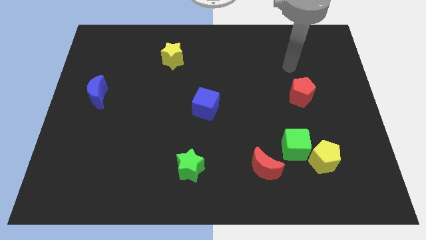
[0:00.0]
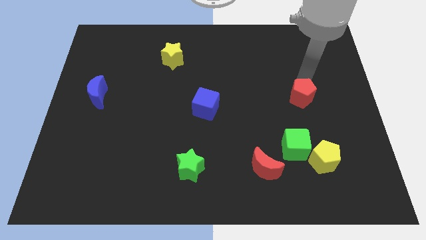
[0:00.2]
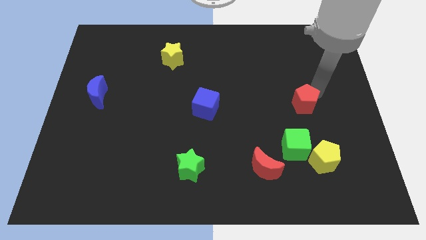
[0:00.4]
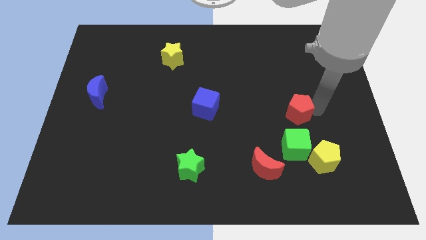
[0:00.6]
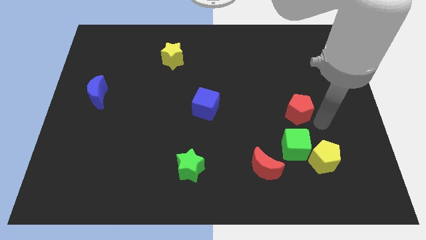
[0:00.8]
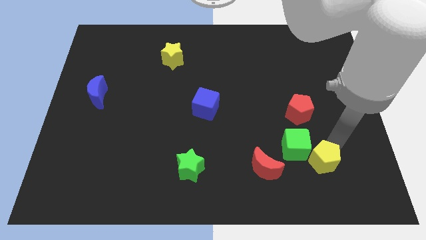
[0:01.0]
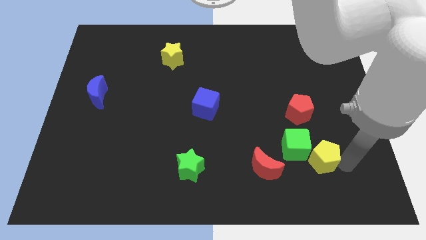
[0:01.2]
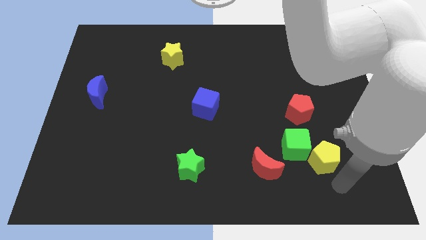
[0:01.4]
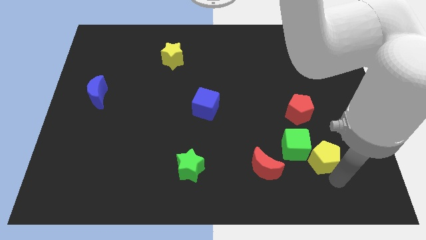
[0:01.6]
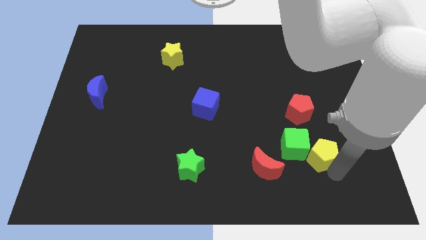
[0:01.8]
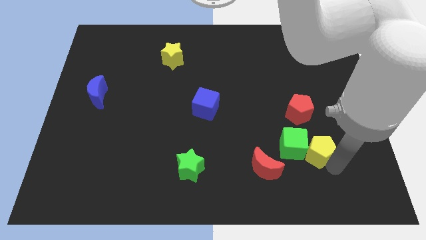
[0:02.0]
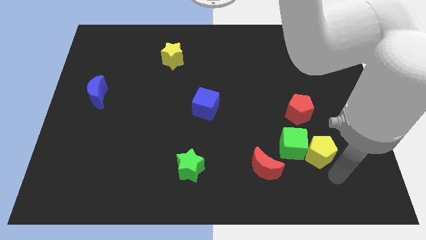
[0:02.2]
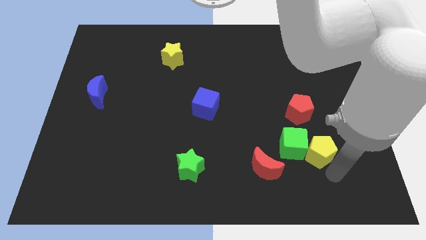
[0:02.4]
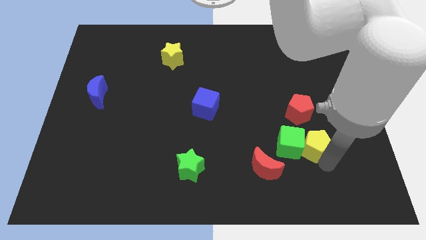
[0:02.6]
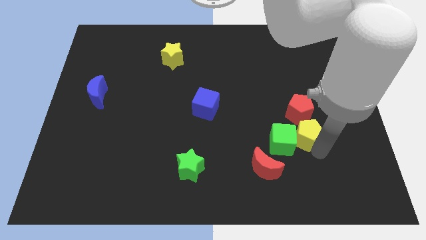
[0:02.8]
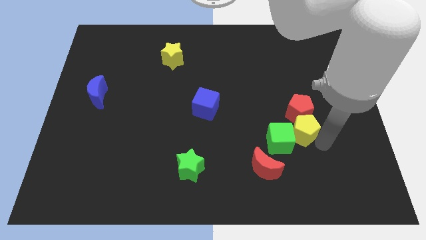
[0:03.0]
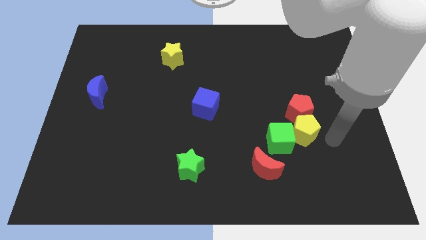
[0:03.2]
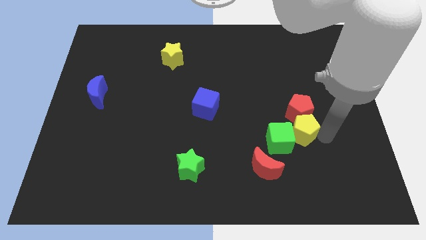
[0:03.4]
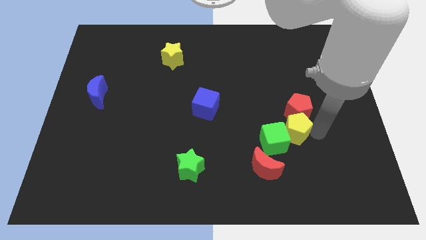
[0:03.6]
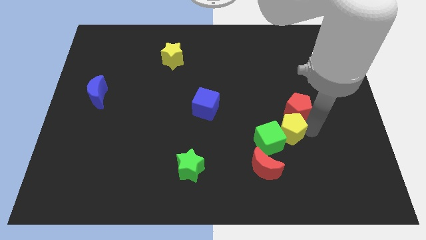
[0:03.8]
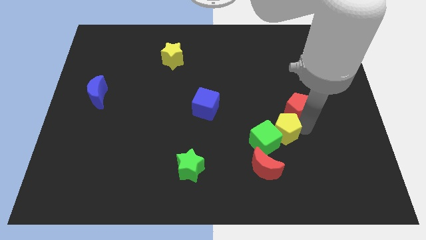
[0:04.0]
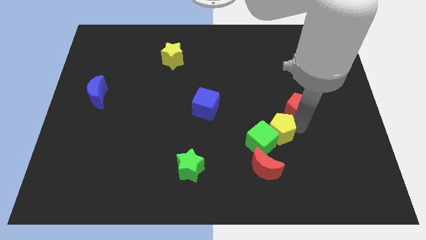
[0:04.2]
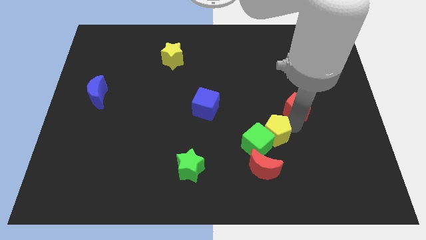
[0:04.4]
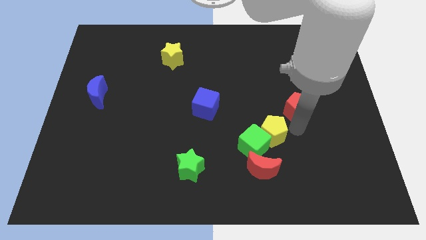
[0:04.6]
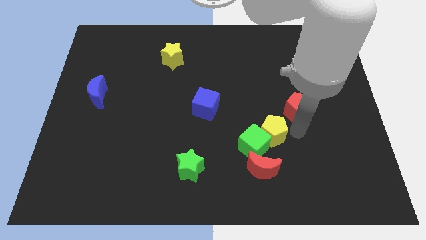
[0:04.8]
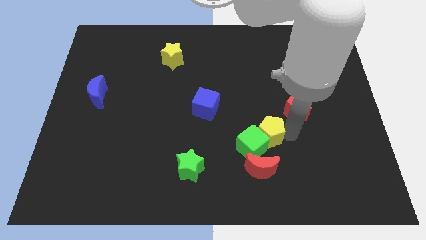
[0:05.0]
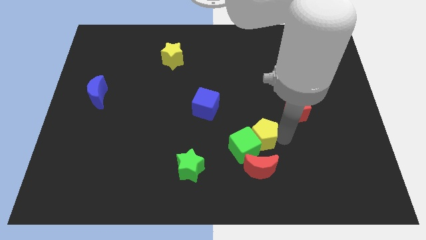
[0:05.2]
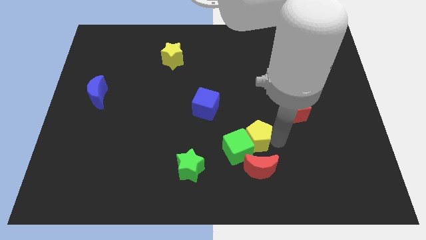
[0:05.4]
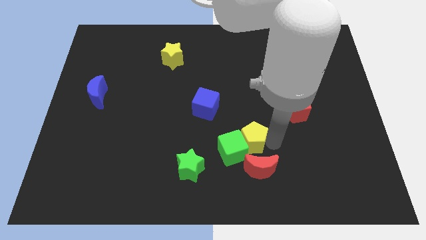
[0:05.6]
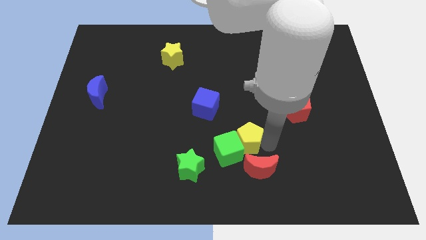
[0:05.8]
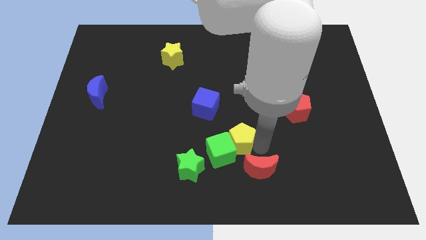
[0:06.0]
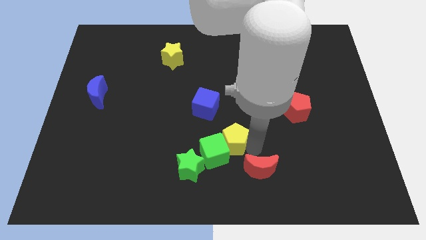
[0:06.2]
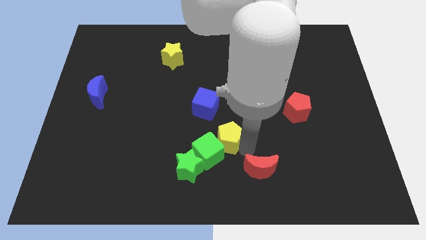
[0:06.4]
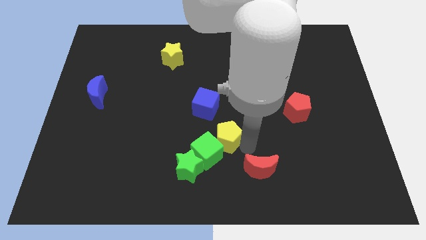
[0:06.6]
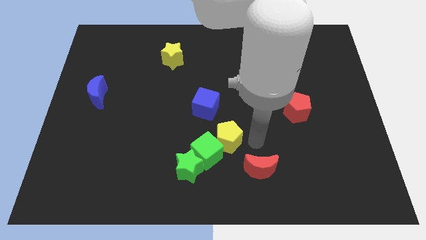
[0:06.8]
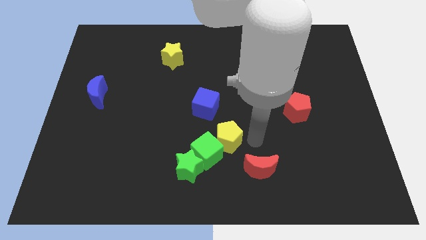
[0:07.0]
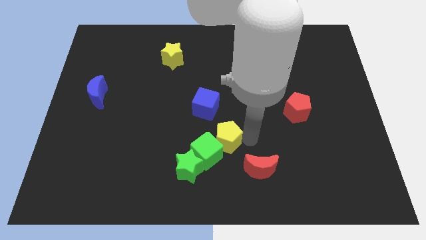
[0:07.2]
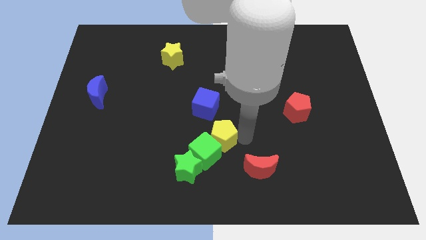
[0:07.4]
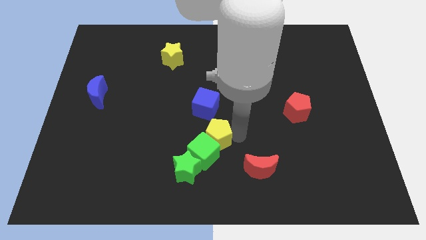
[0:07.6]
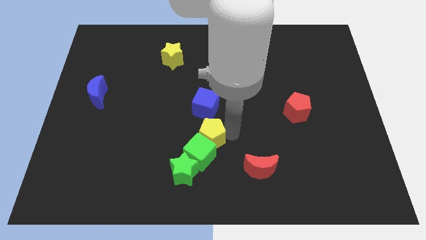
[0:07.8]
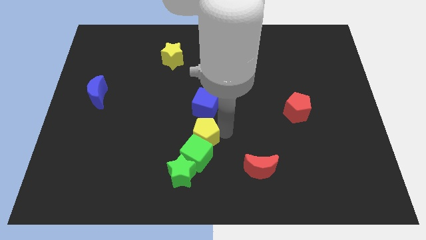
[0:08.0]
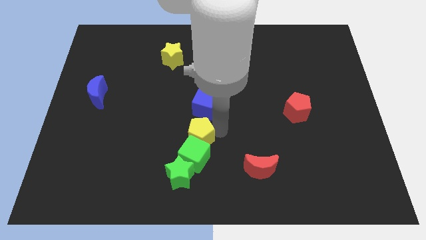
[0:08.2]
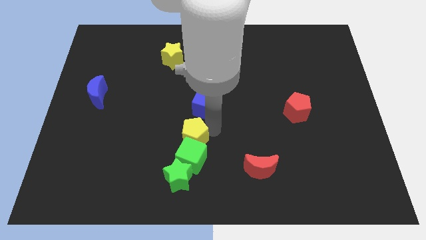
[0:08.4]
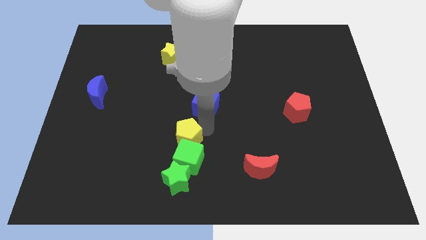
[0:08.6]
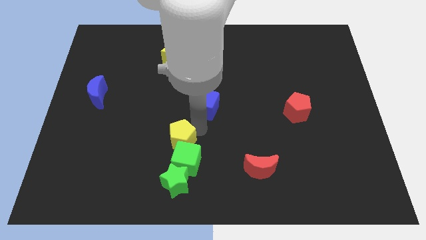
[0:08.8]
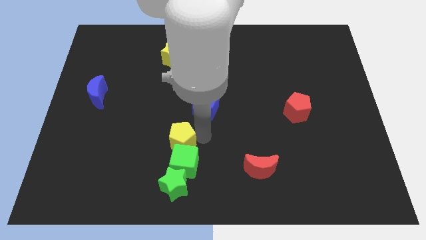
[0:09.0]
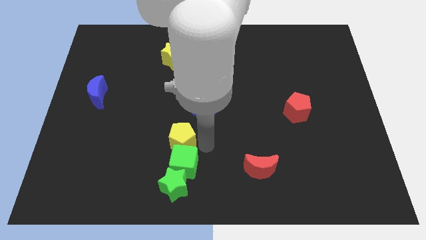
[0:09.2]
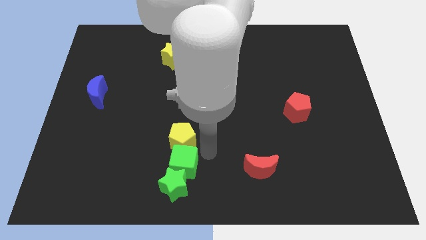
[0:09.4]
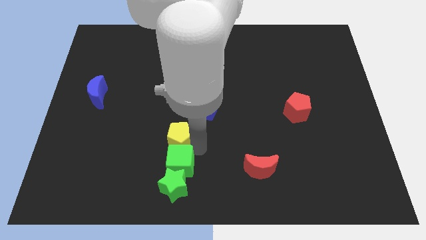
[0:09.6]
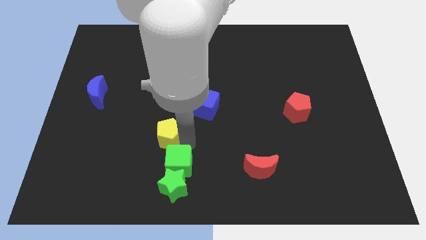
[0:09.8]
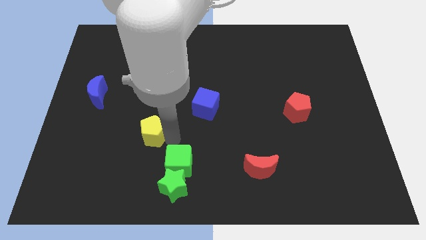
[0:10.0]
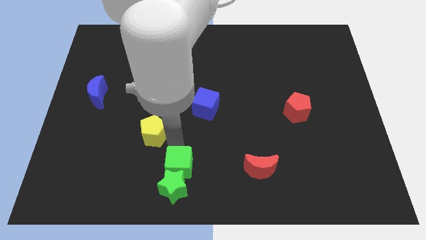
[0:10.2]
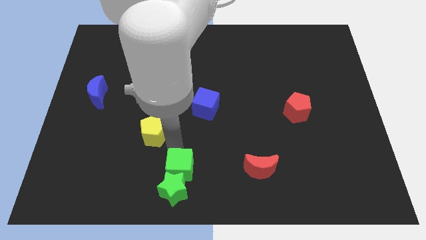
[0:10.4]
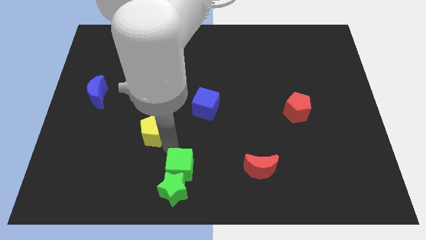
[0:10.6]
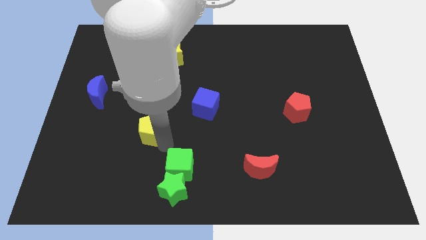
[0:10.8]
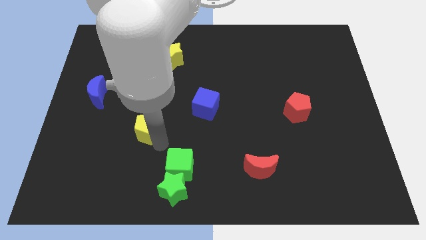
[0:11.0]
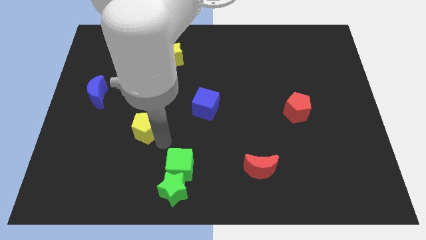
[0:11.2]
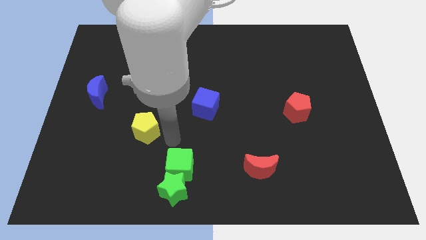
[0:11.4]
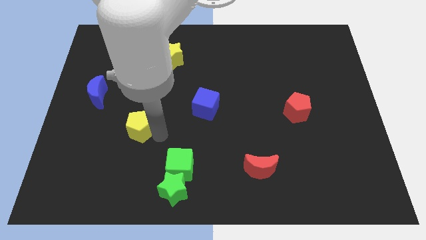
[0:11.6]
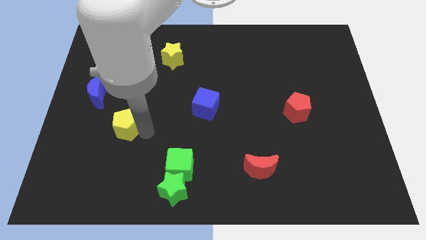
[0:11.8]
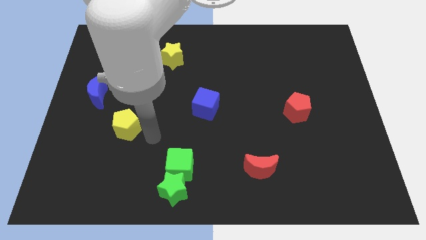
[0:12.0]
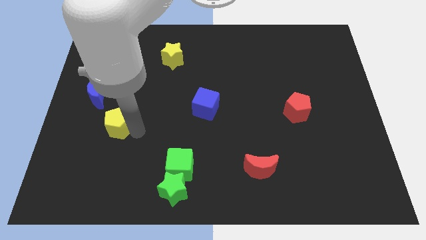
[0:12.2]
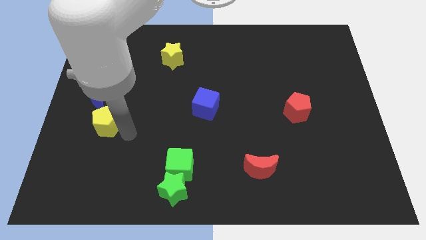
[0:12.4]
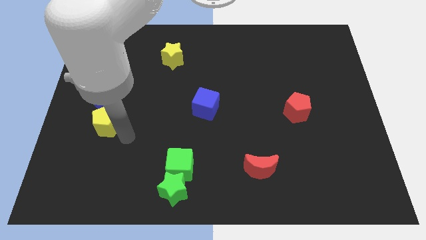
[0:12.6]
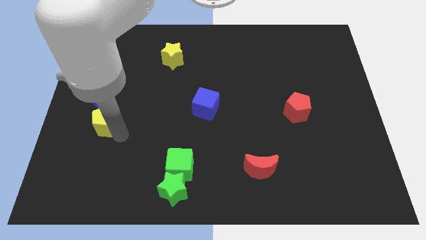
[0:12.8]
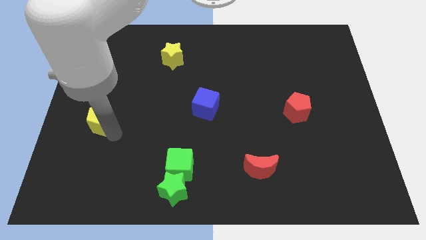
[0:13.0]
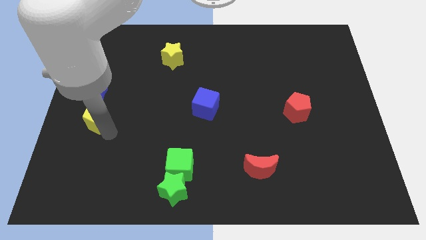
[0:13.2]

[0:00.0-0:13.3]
push the yellow pentagon to the left side of the board

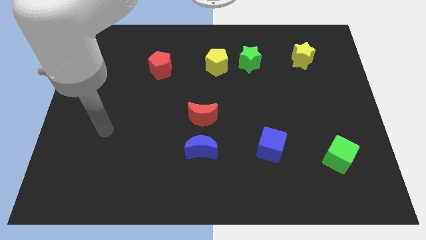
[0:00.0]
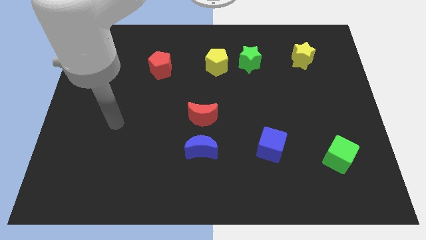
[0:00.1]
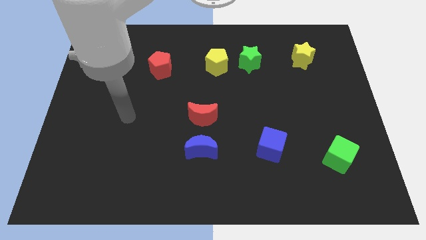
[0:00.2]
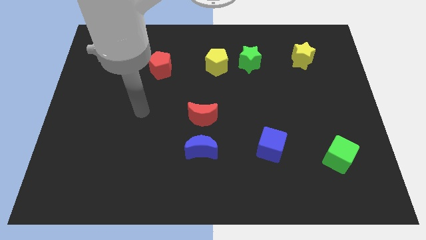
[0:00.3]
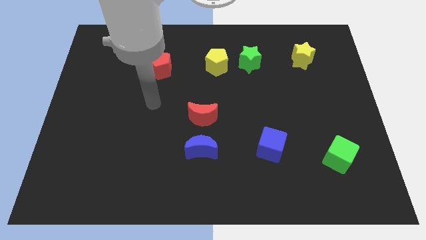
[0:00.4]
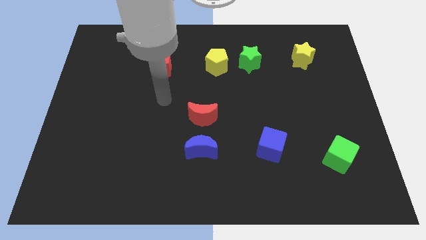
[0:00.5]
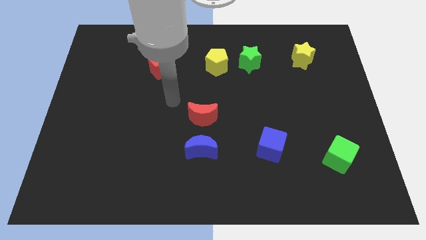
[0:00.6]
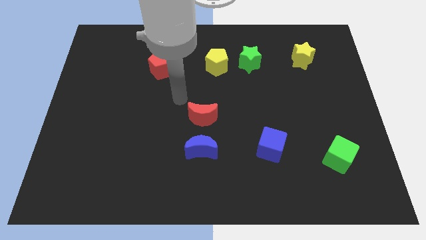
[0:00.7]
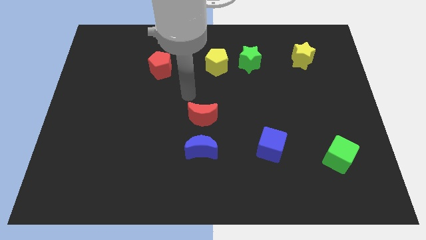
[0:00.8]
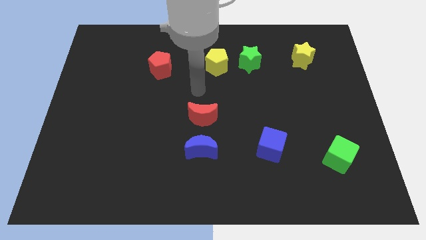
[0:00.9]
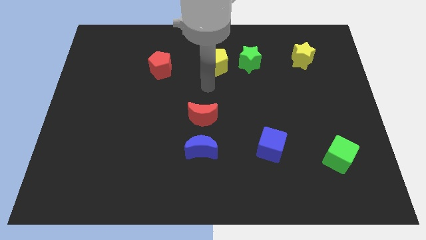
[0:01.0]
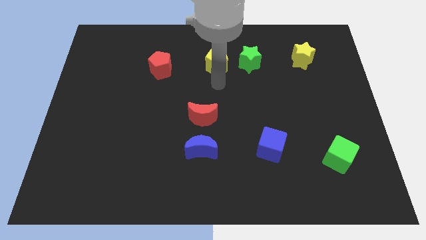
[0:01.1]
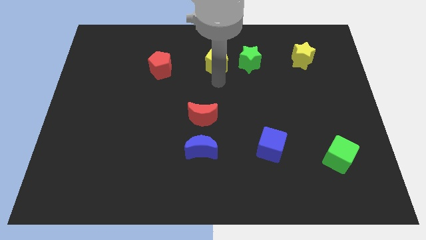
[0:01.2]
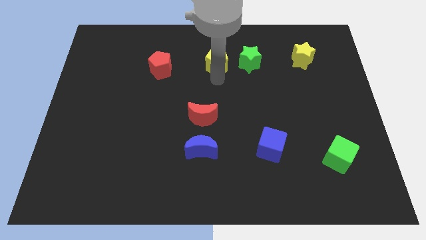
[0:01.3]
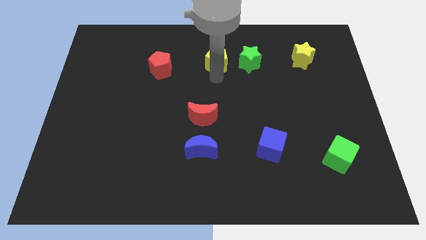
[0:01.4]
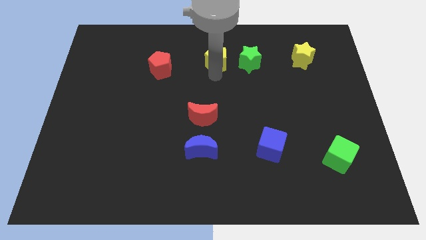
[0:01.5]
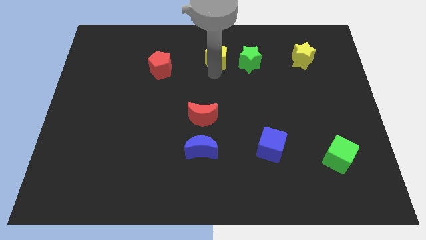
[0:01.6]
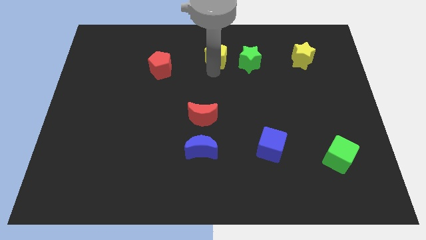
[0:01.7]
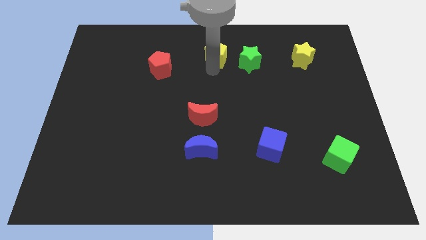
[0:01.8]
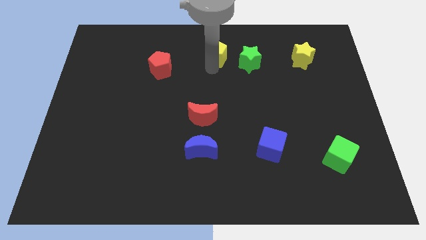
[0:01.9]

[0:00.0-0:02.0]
slide the yellow pentagon to the top side
